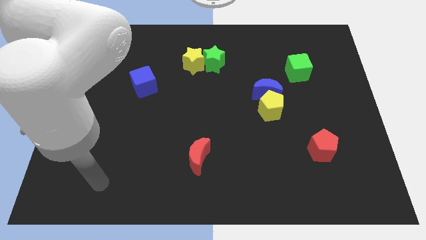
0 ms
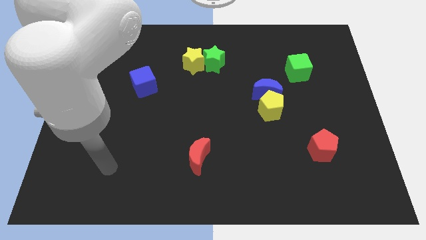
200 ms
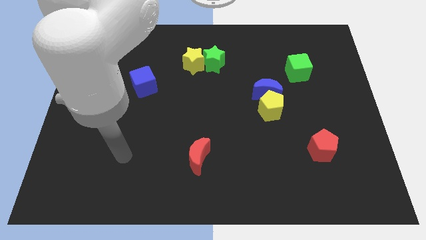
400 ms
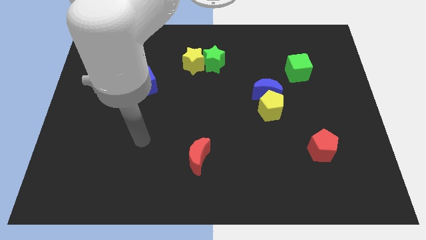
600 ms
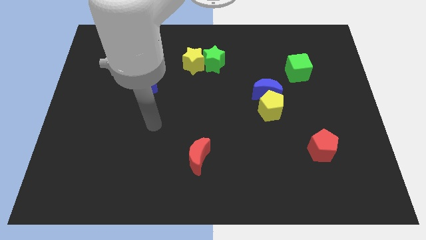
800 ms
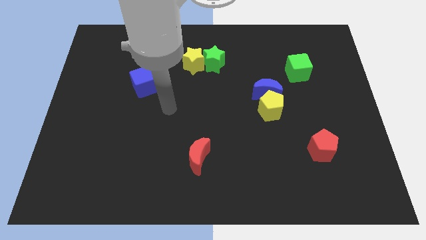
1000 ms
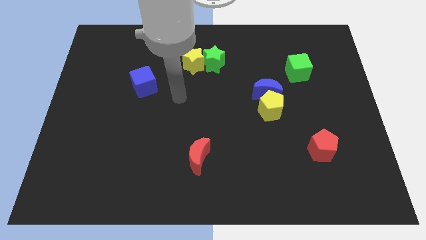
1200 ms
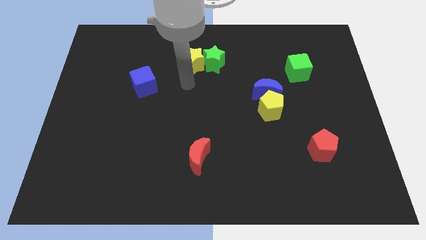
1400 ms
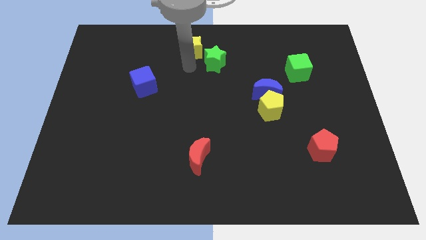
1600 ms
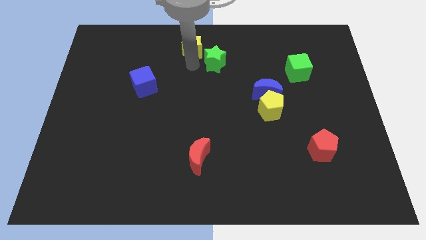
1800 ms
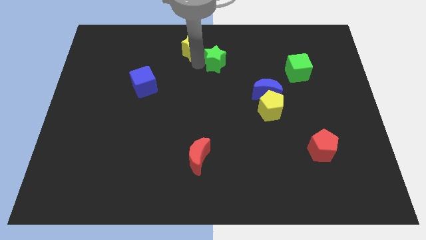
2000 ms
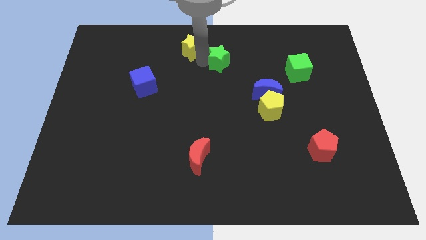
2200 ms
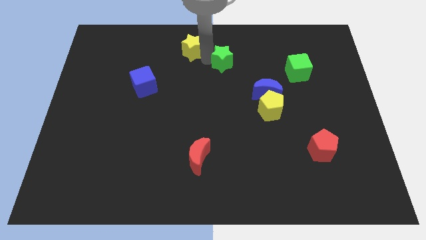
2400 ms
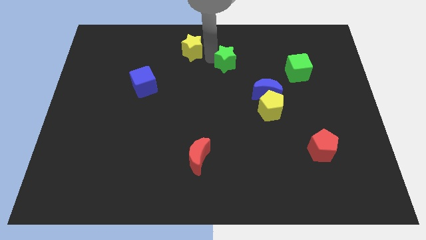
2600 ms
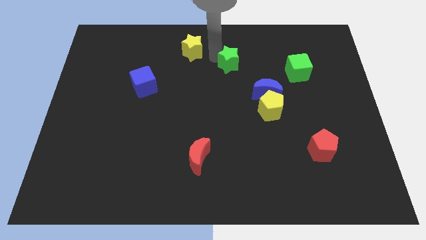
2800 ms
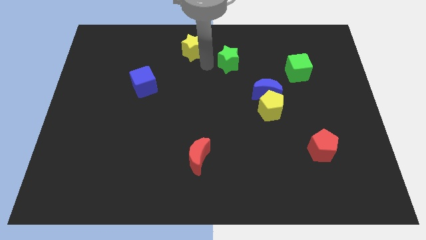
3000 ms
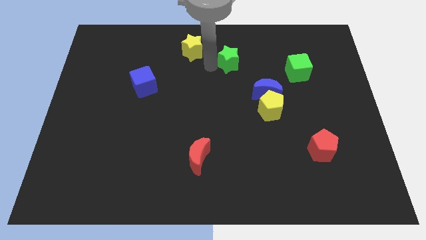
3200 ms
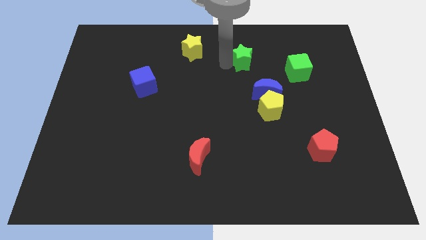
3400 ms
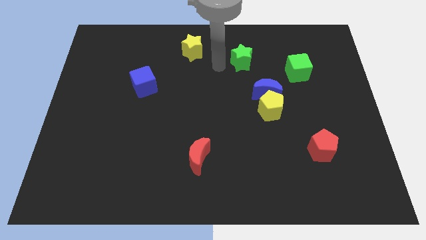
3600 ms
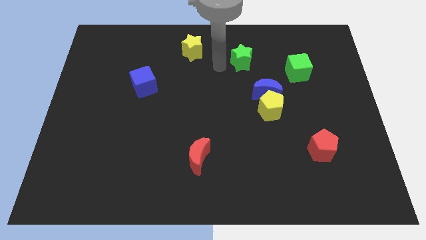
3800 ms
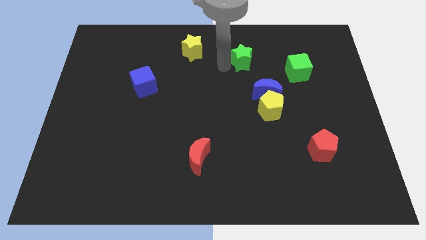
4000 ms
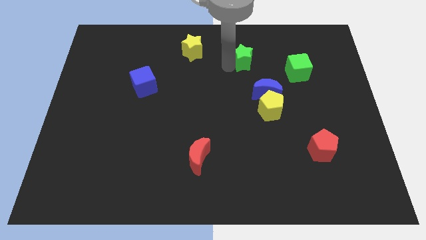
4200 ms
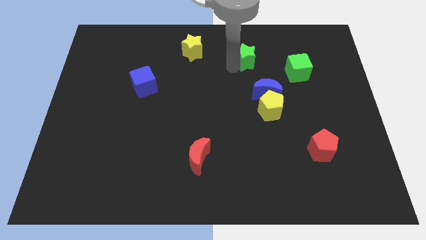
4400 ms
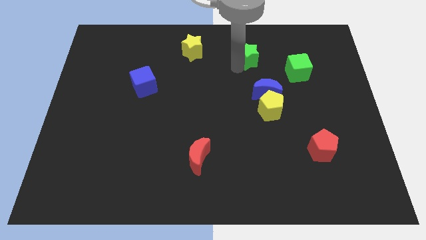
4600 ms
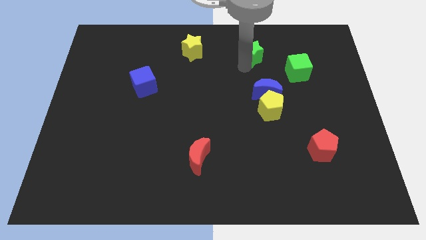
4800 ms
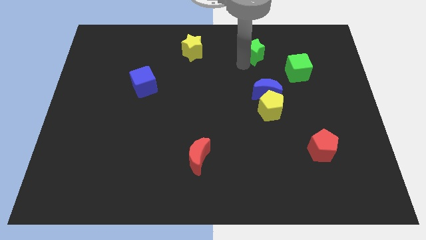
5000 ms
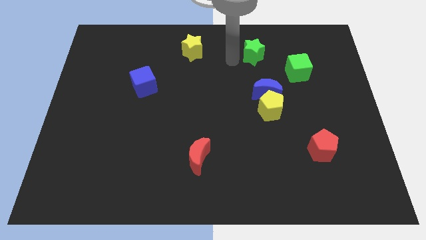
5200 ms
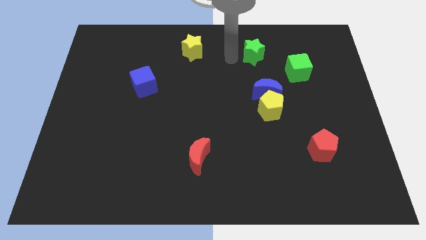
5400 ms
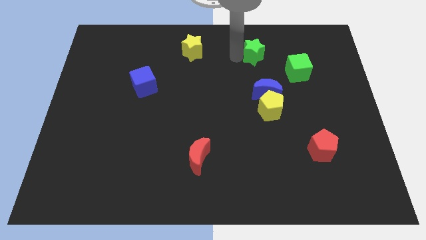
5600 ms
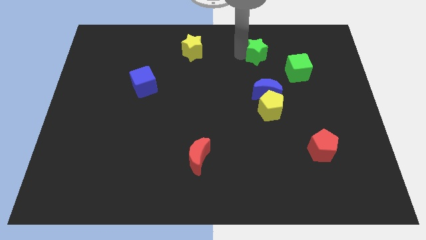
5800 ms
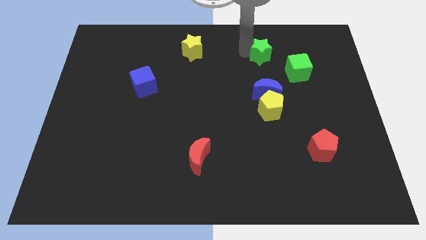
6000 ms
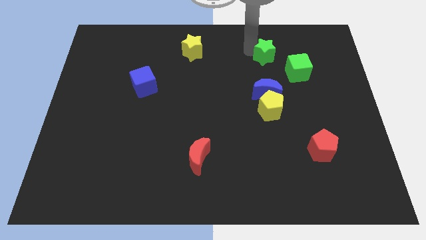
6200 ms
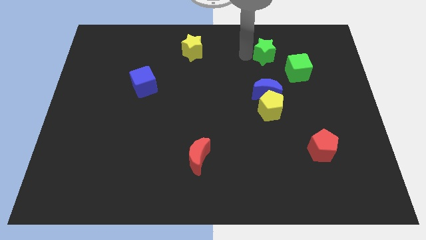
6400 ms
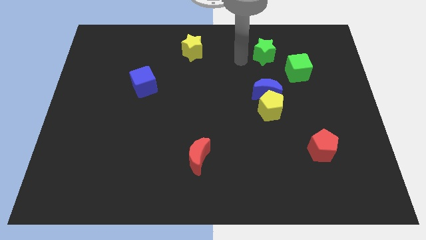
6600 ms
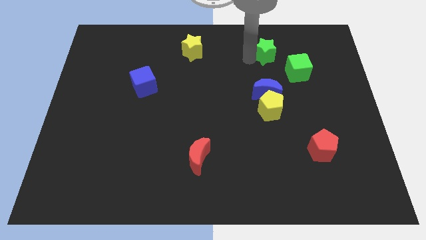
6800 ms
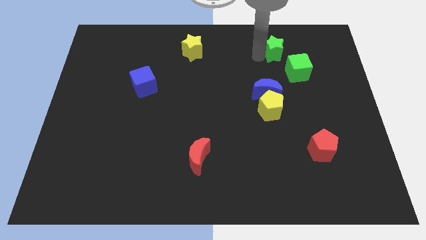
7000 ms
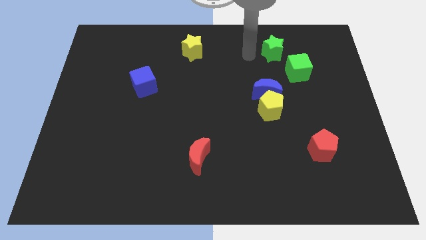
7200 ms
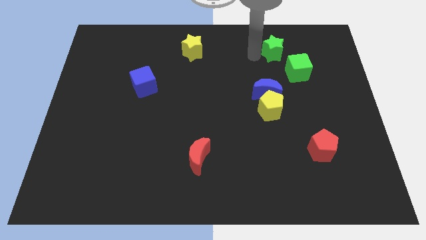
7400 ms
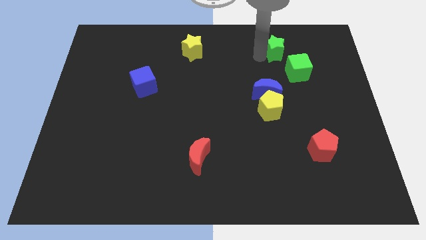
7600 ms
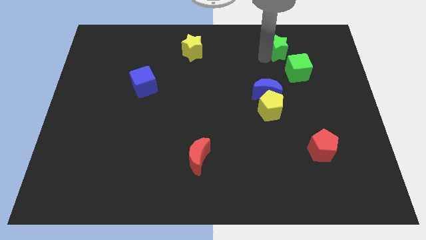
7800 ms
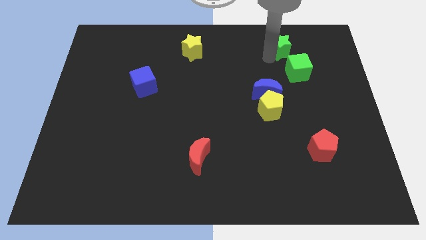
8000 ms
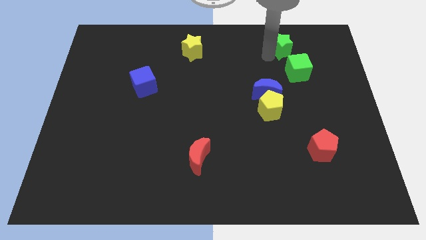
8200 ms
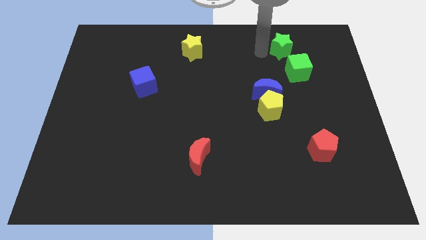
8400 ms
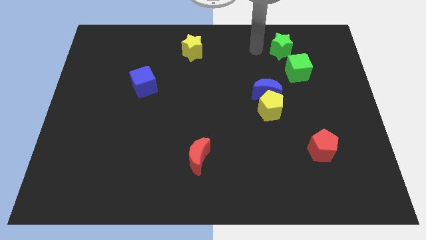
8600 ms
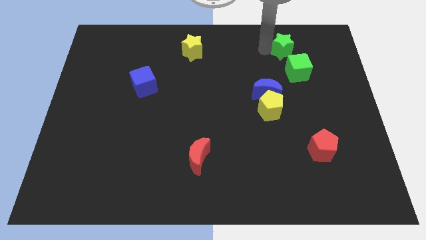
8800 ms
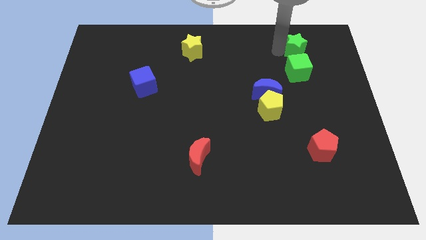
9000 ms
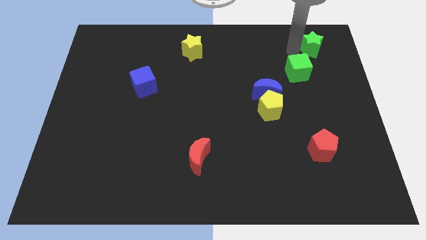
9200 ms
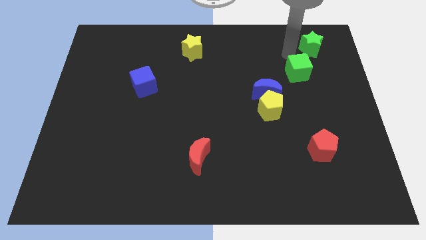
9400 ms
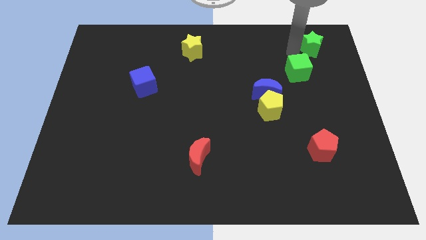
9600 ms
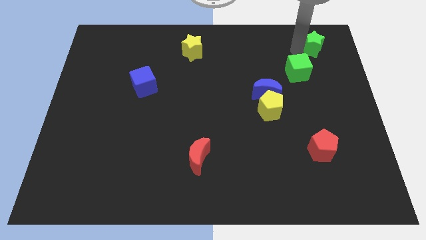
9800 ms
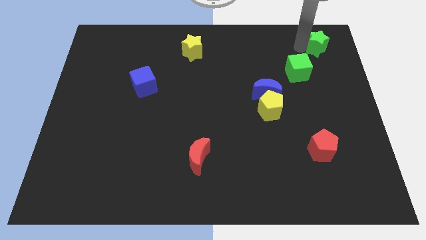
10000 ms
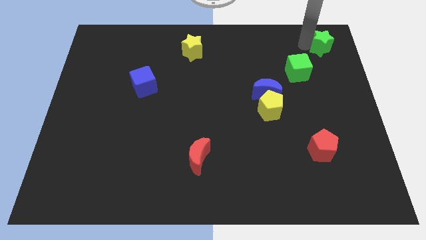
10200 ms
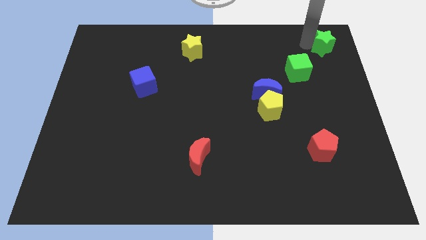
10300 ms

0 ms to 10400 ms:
push the green star to the upper right corner

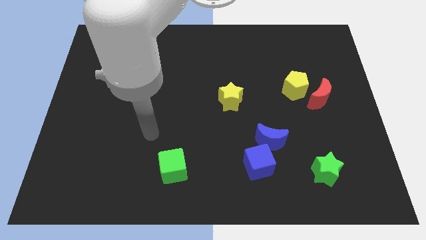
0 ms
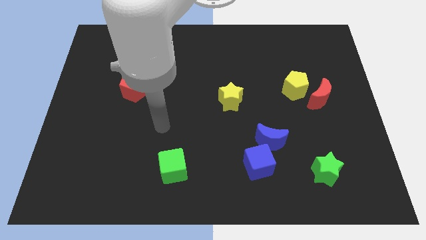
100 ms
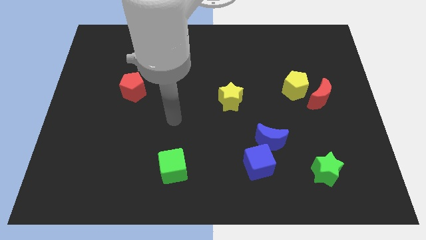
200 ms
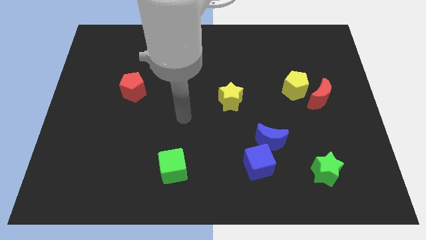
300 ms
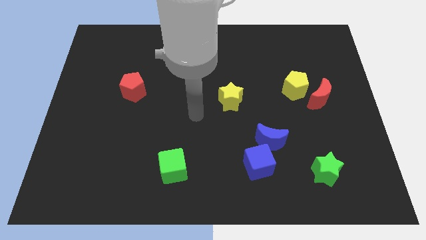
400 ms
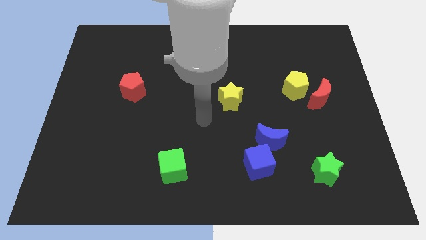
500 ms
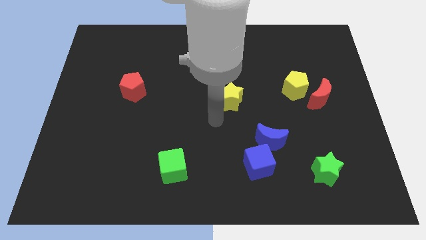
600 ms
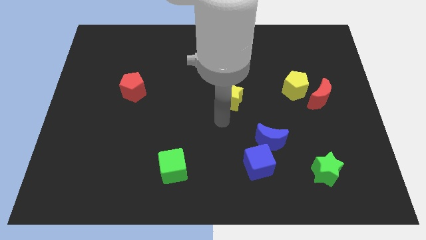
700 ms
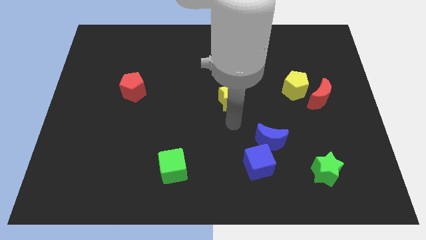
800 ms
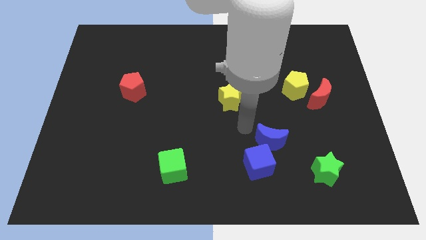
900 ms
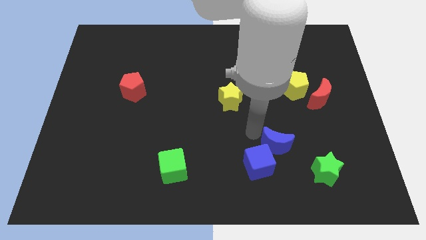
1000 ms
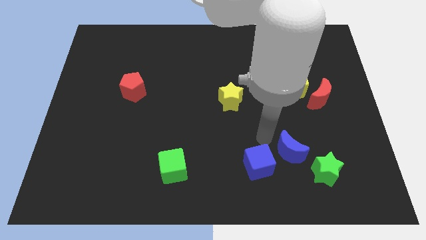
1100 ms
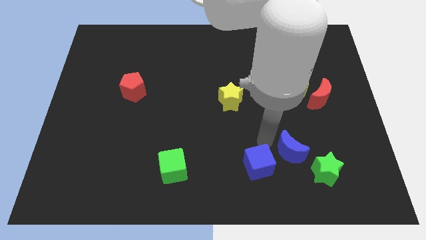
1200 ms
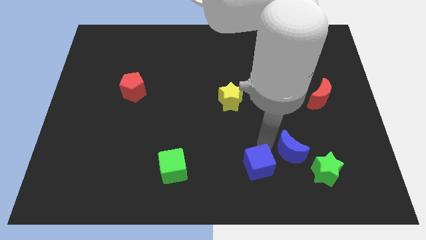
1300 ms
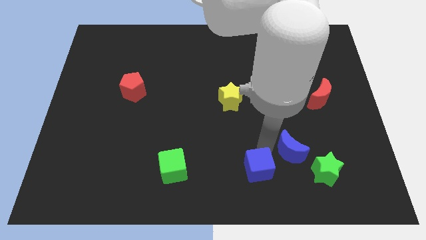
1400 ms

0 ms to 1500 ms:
put the blue cube to the bottom
